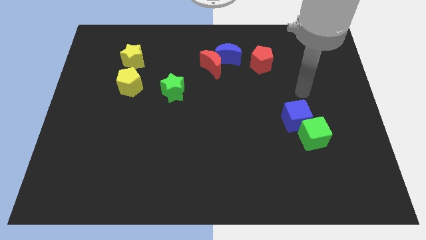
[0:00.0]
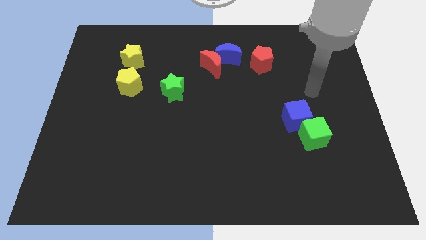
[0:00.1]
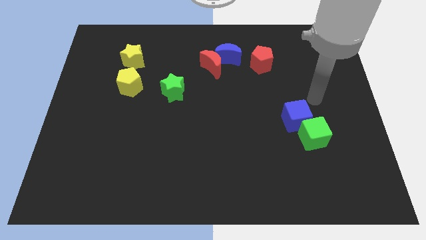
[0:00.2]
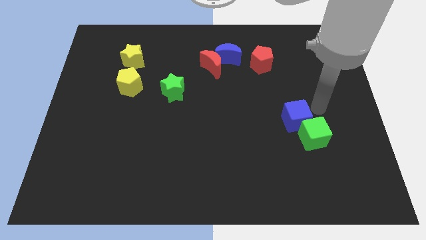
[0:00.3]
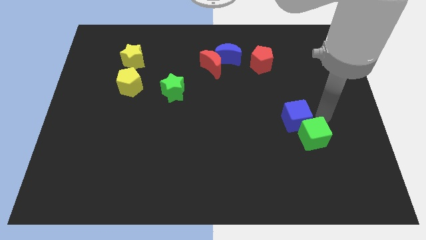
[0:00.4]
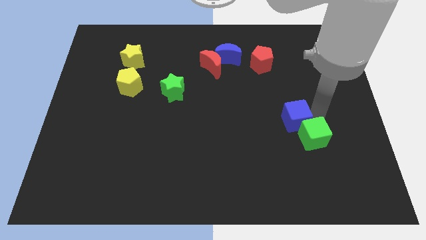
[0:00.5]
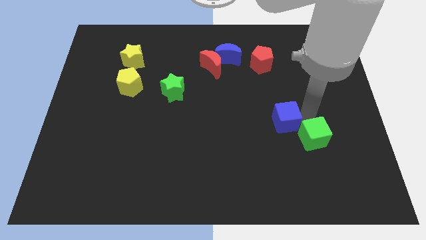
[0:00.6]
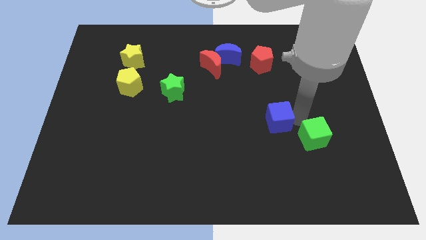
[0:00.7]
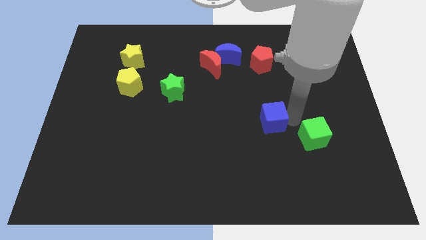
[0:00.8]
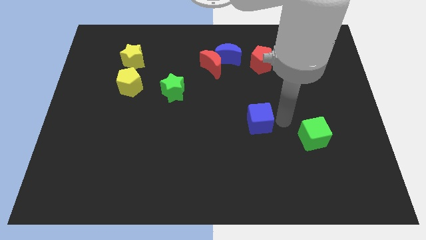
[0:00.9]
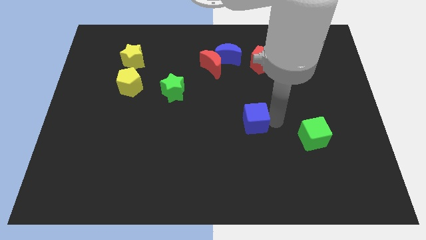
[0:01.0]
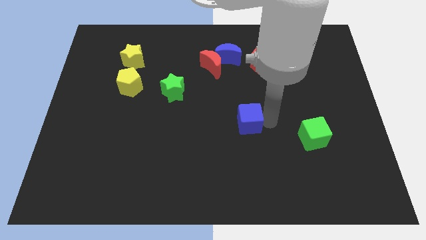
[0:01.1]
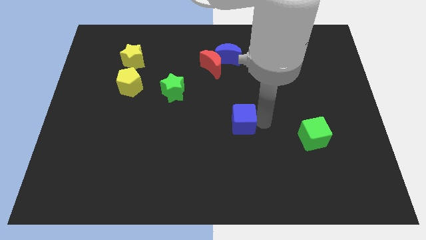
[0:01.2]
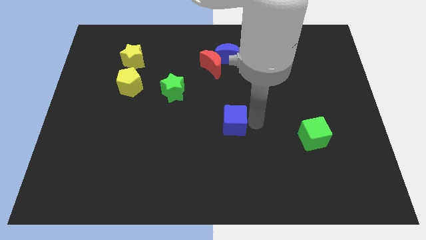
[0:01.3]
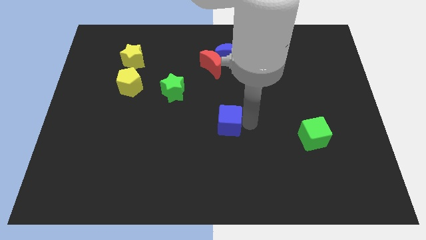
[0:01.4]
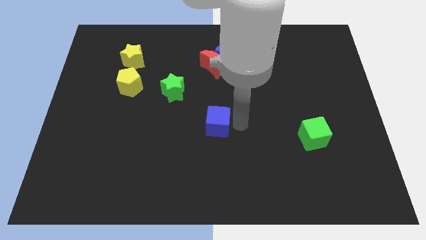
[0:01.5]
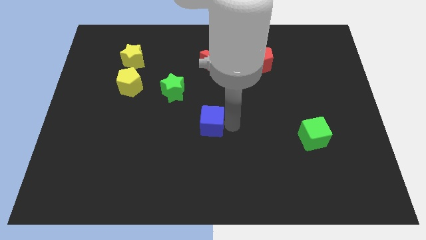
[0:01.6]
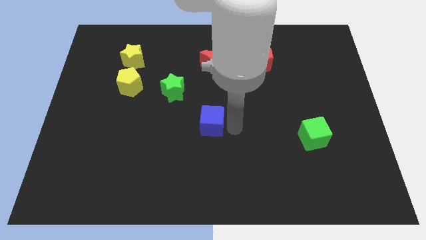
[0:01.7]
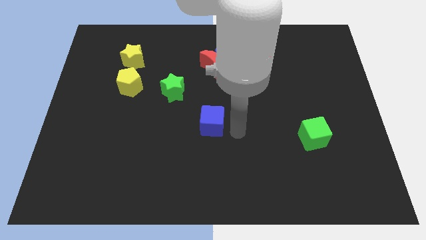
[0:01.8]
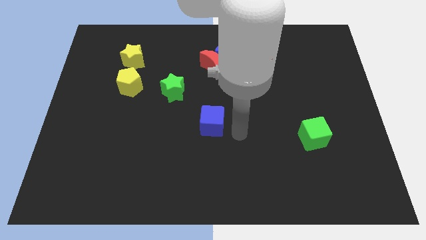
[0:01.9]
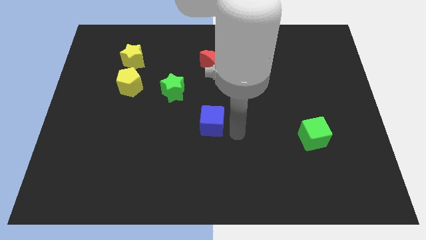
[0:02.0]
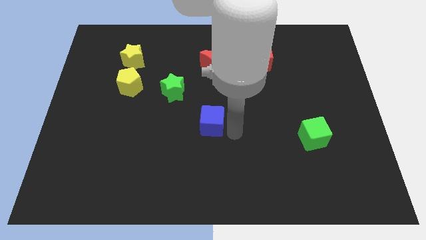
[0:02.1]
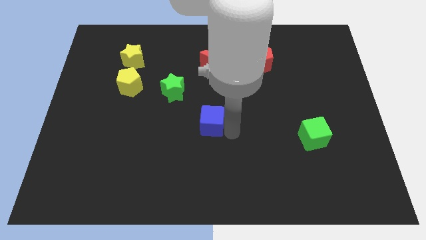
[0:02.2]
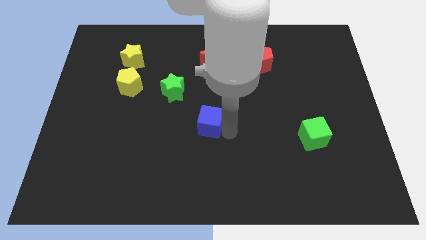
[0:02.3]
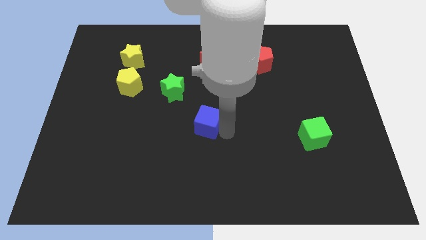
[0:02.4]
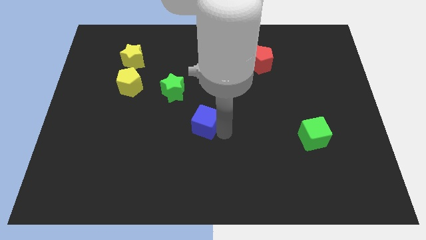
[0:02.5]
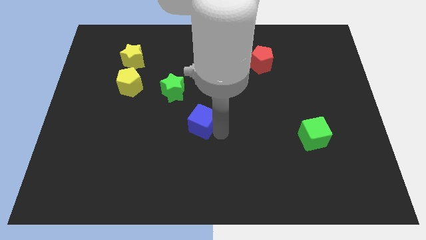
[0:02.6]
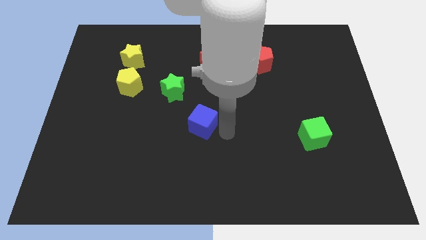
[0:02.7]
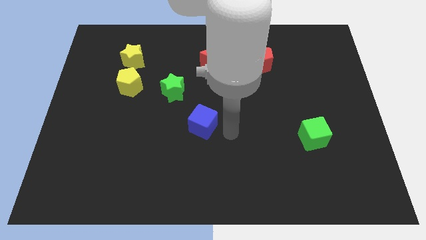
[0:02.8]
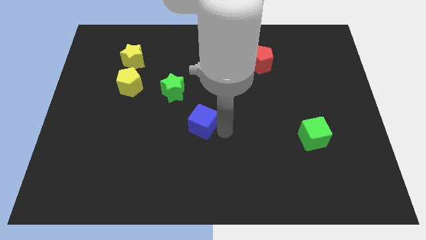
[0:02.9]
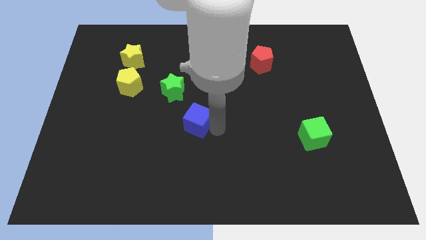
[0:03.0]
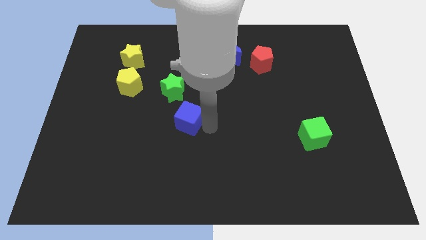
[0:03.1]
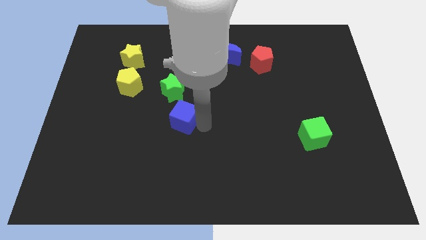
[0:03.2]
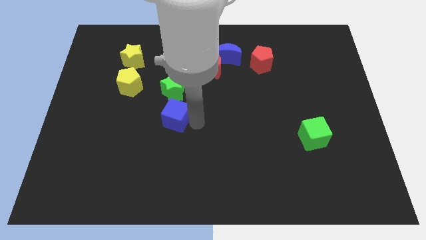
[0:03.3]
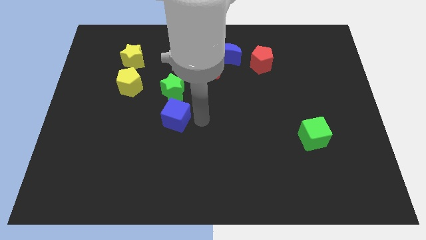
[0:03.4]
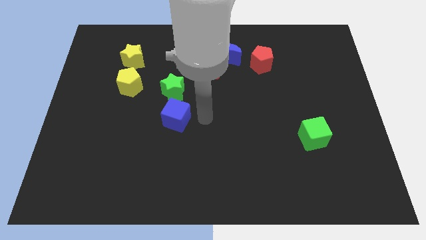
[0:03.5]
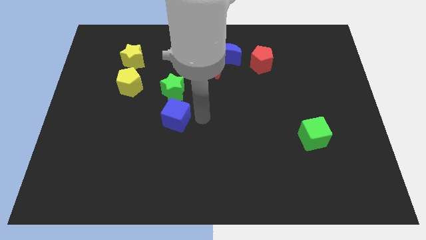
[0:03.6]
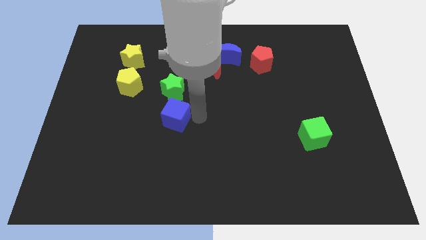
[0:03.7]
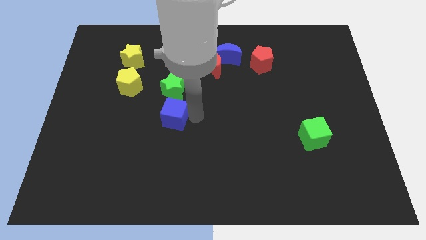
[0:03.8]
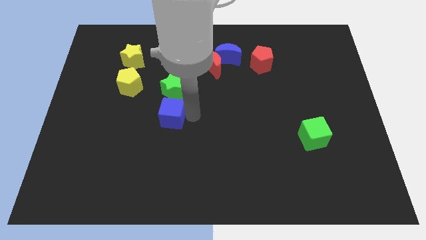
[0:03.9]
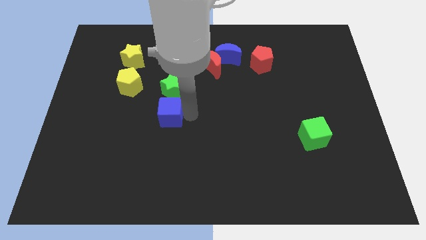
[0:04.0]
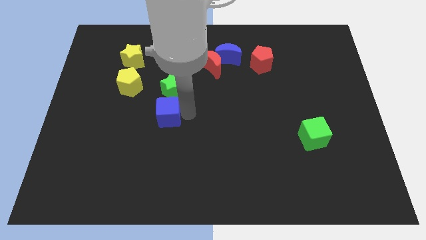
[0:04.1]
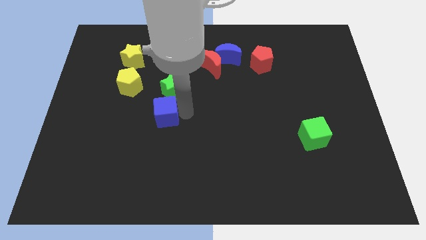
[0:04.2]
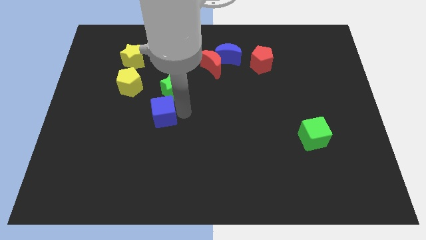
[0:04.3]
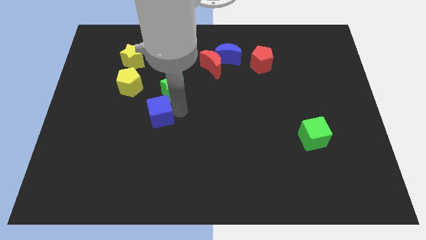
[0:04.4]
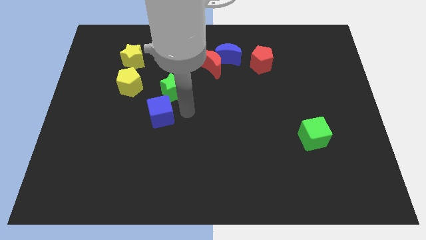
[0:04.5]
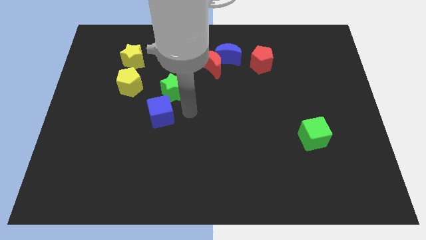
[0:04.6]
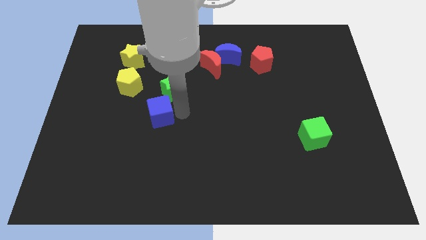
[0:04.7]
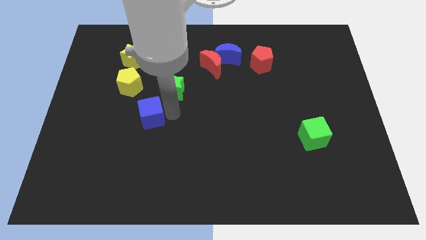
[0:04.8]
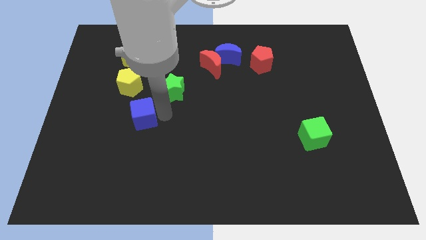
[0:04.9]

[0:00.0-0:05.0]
move the blue cube to the bottom of the yellow pentagon

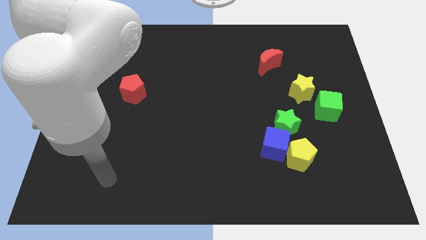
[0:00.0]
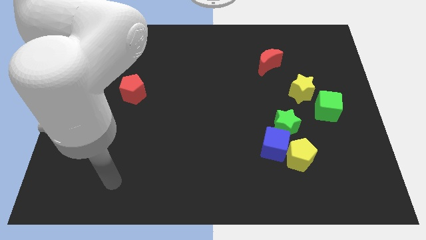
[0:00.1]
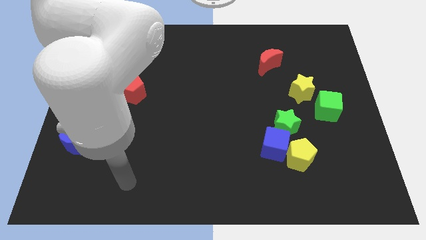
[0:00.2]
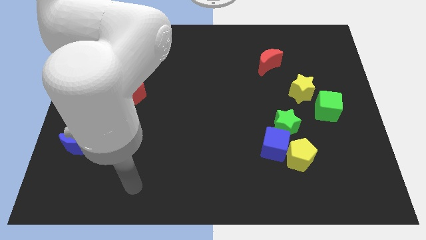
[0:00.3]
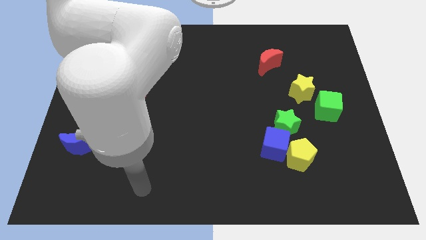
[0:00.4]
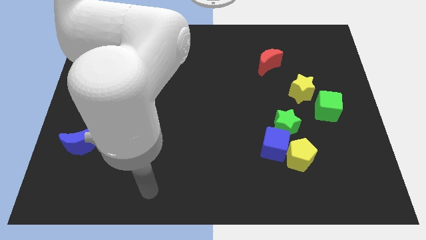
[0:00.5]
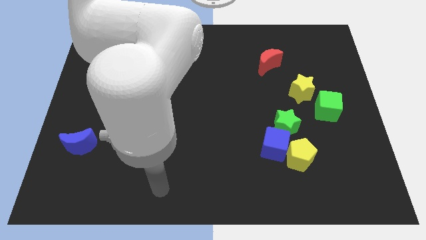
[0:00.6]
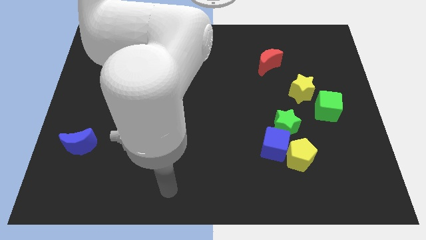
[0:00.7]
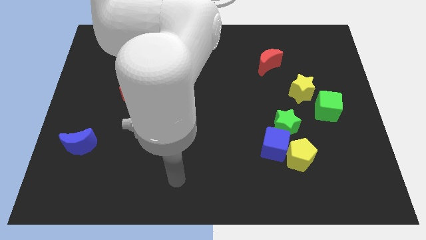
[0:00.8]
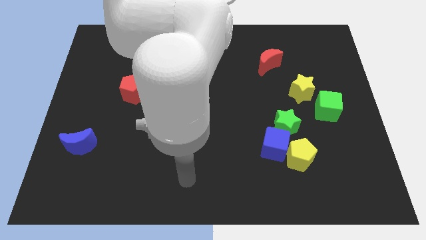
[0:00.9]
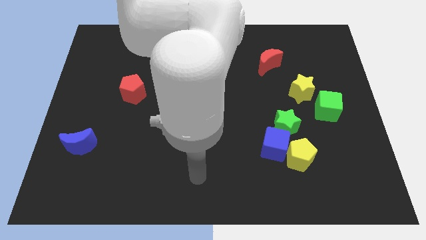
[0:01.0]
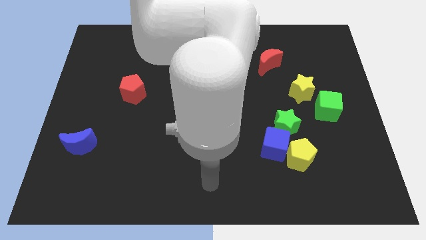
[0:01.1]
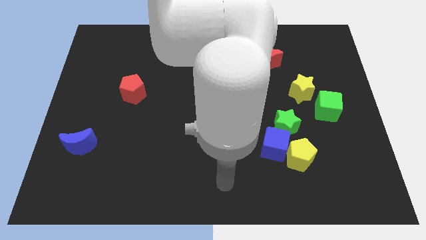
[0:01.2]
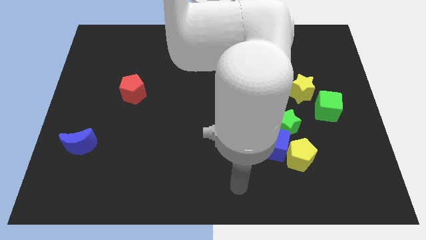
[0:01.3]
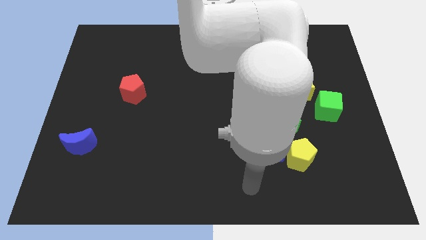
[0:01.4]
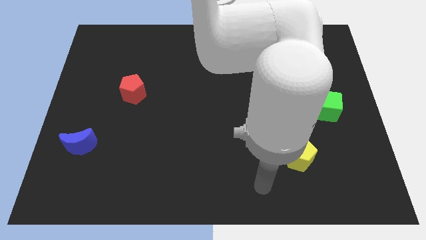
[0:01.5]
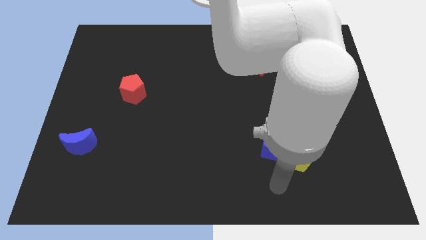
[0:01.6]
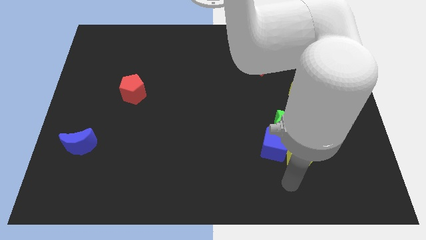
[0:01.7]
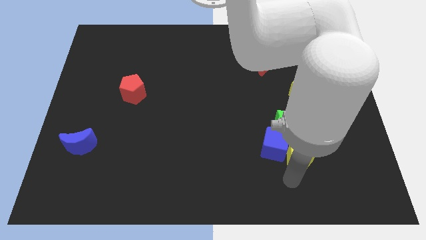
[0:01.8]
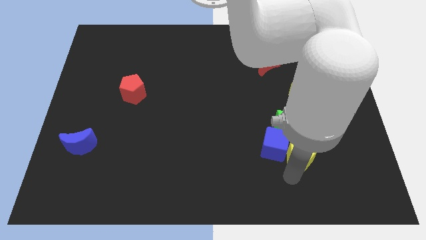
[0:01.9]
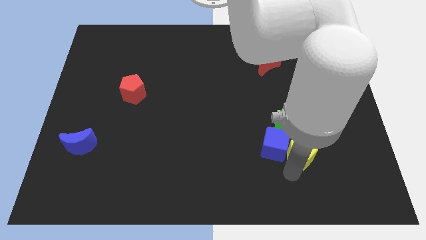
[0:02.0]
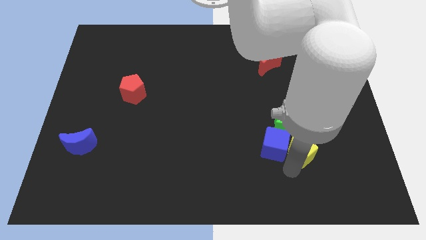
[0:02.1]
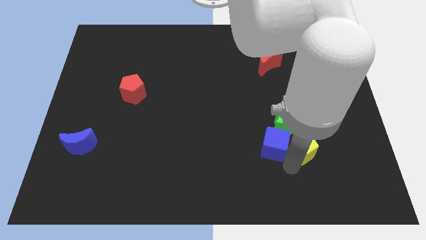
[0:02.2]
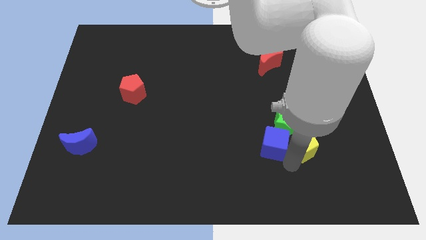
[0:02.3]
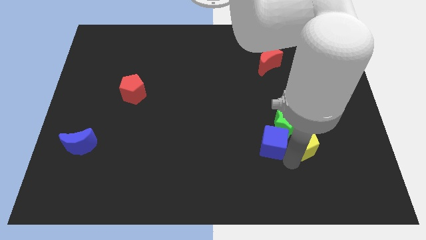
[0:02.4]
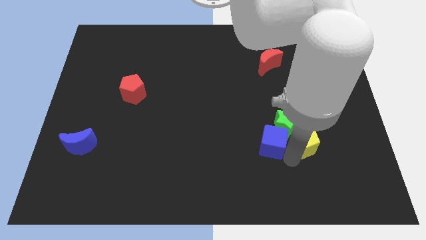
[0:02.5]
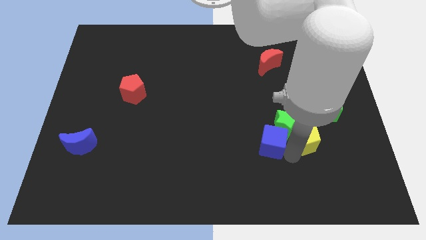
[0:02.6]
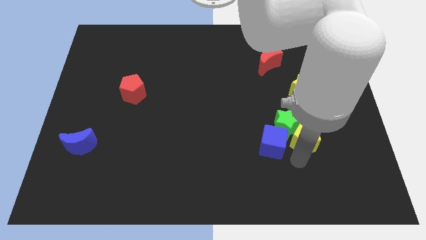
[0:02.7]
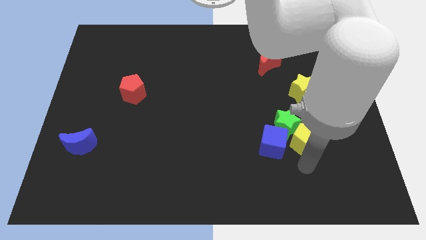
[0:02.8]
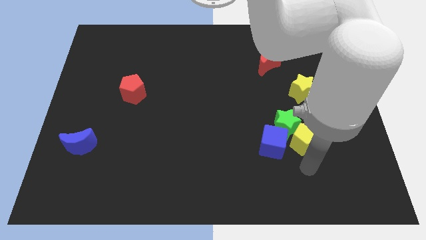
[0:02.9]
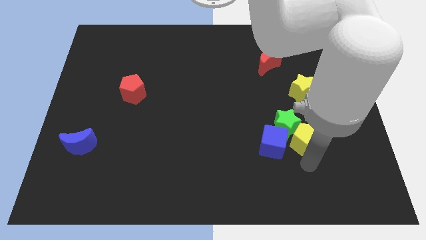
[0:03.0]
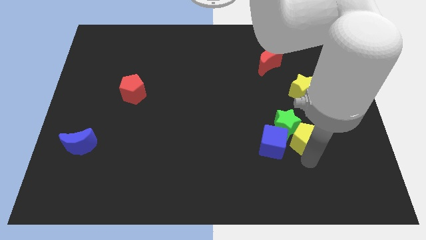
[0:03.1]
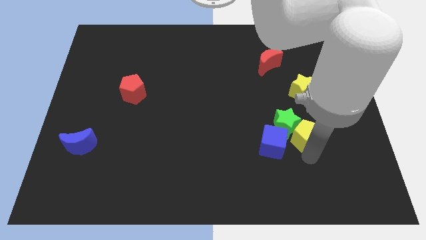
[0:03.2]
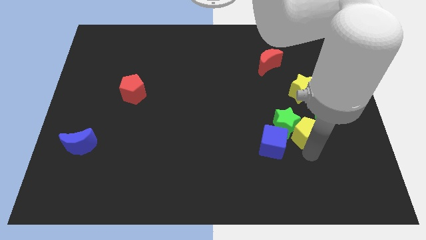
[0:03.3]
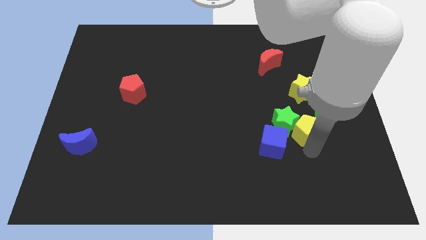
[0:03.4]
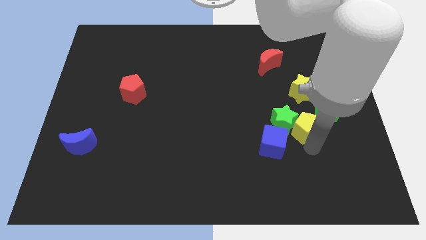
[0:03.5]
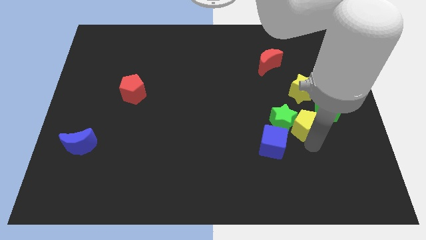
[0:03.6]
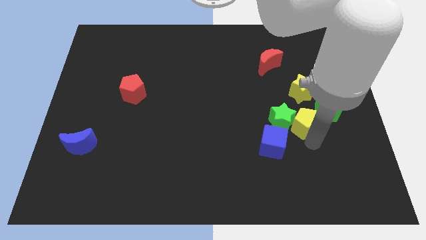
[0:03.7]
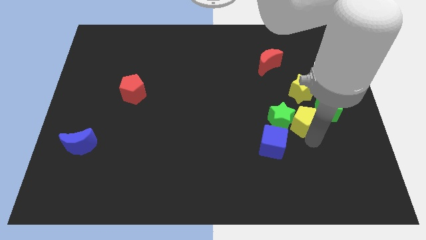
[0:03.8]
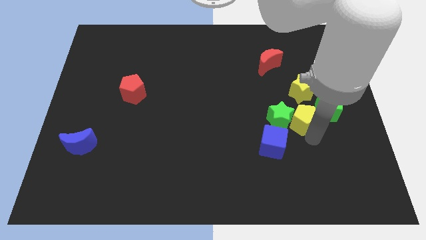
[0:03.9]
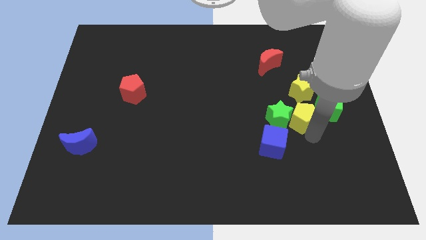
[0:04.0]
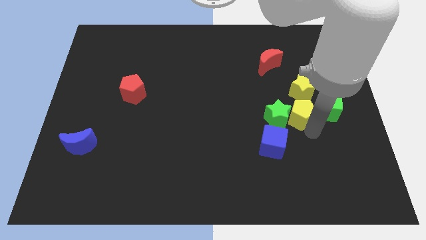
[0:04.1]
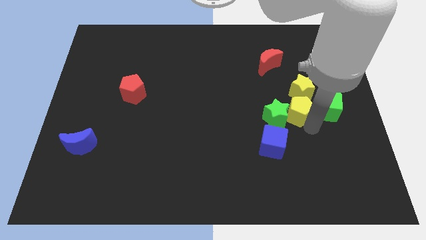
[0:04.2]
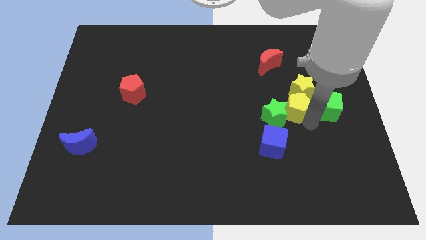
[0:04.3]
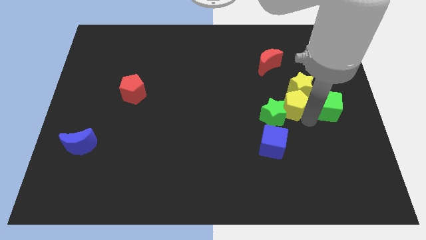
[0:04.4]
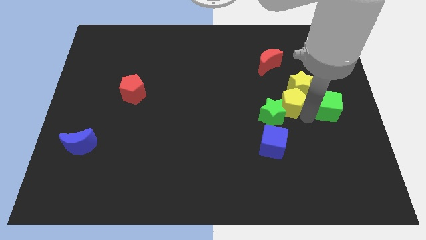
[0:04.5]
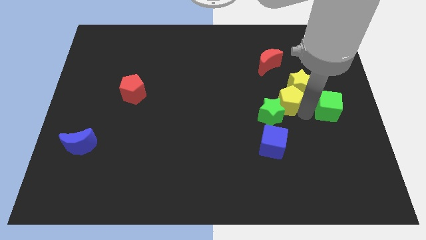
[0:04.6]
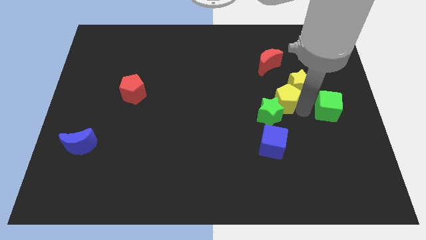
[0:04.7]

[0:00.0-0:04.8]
put the yellow pentagon to the top of the green star
